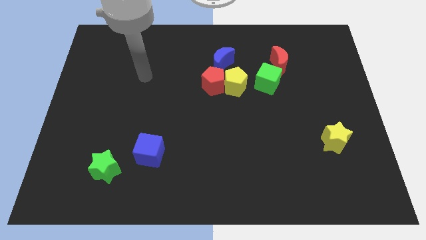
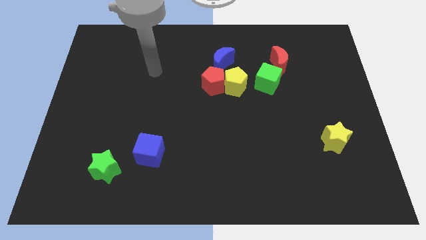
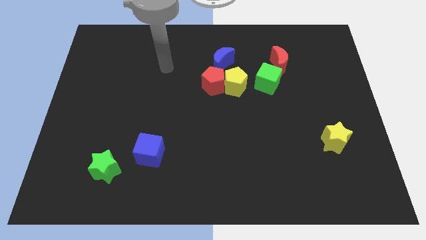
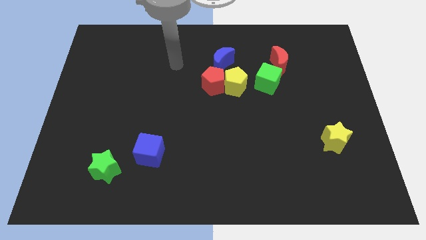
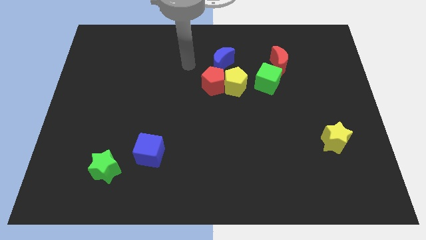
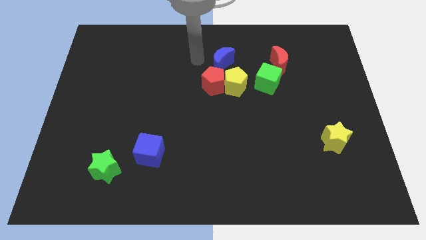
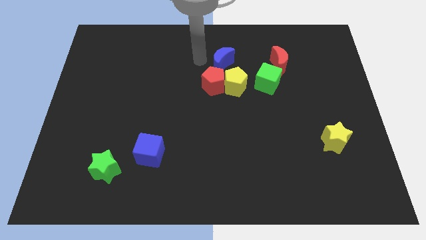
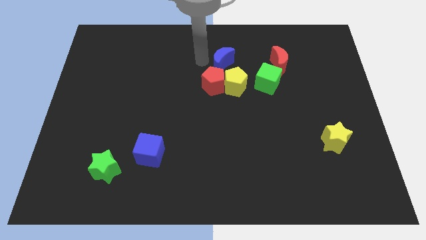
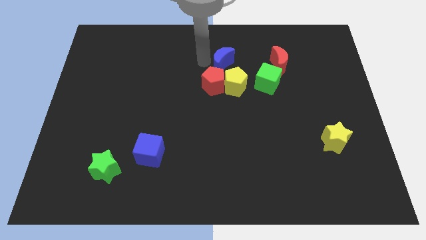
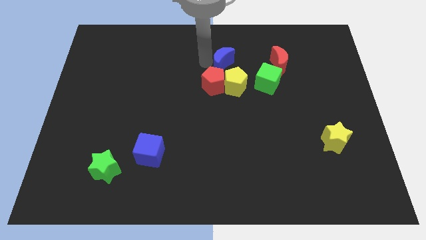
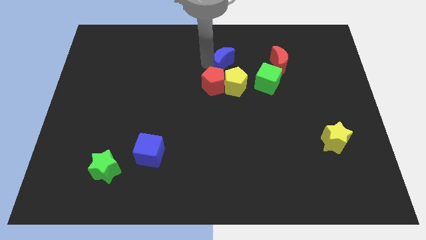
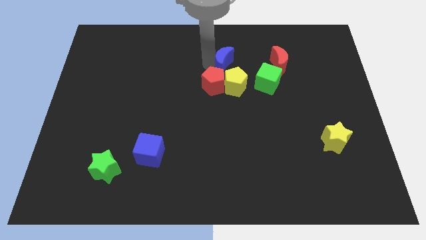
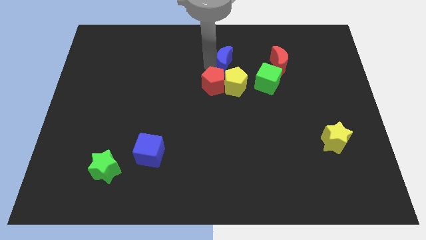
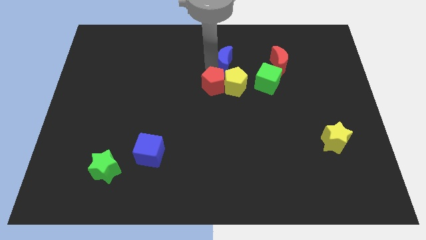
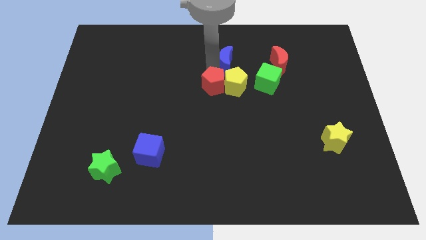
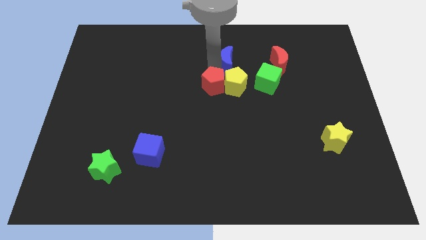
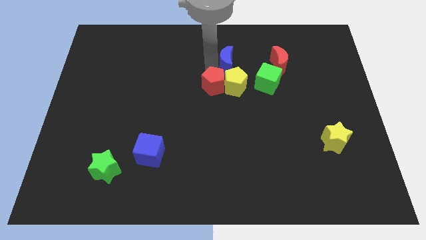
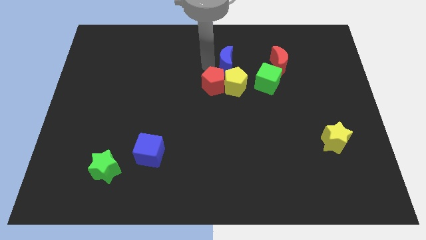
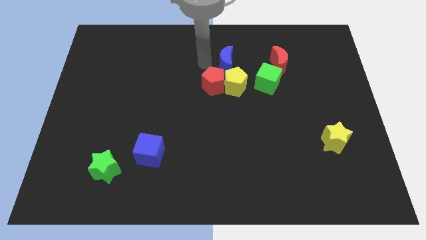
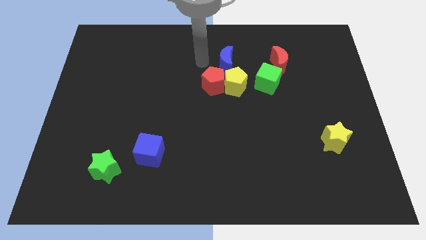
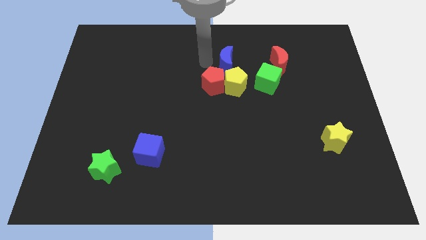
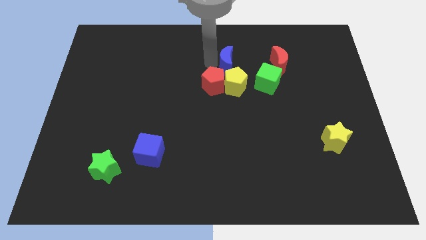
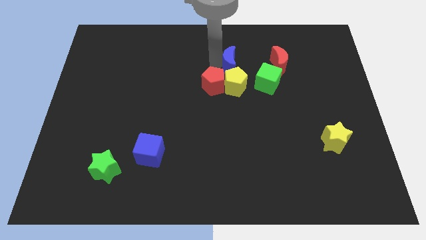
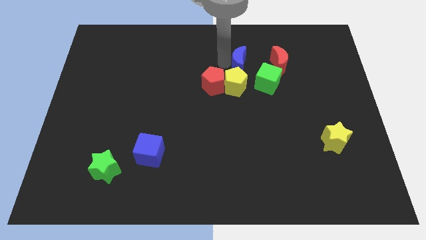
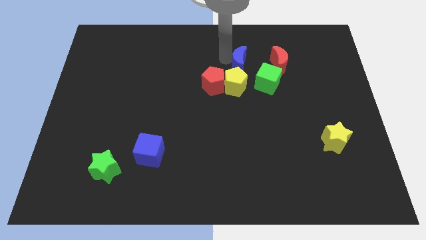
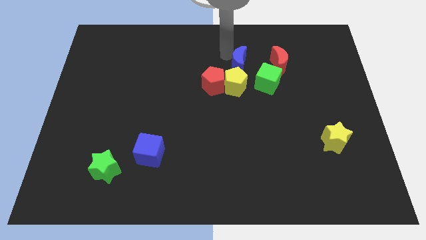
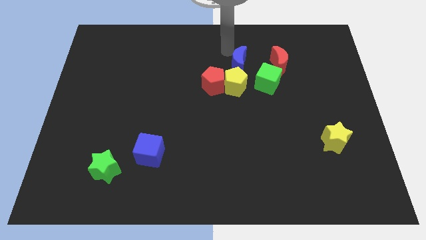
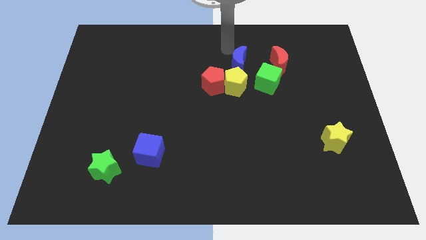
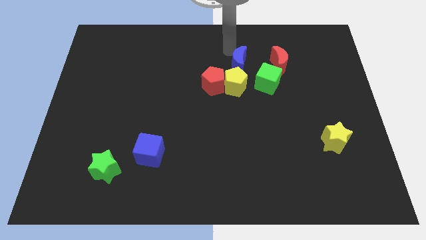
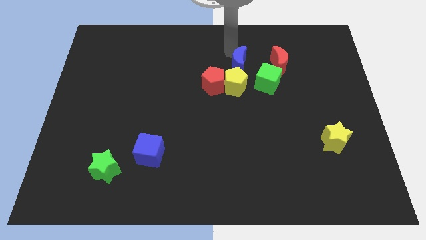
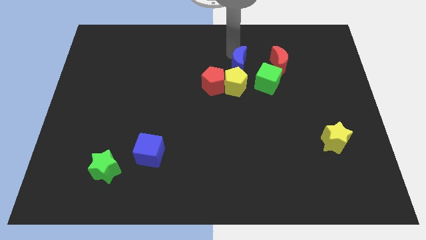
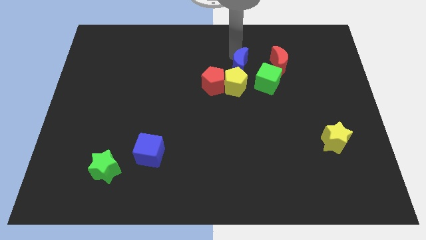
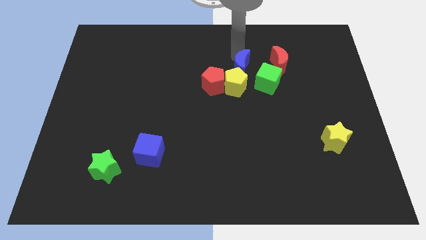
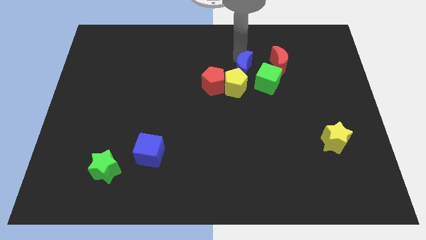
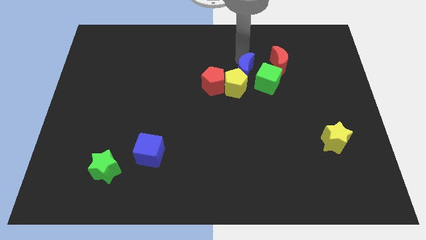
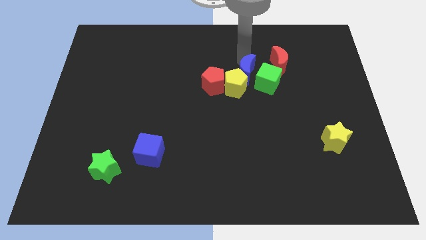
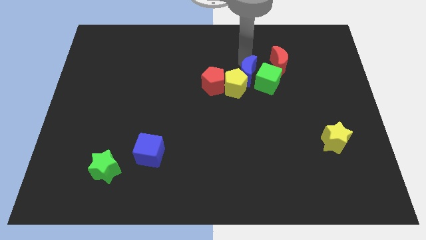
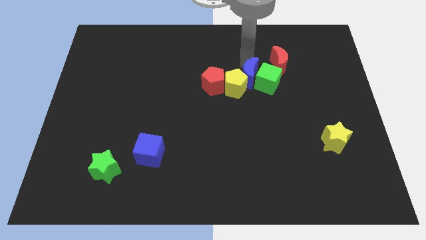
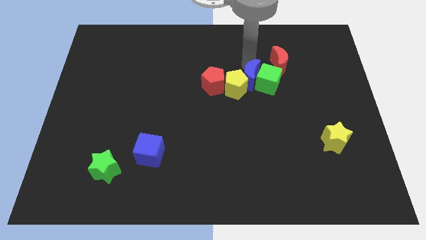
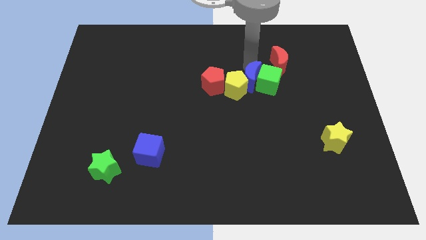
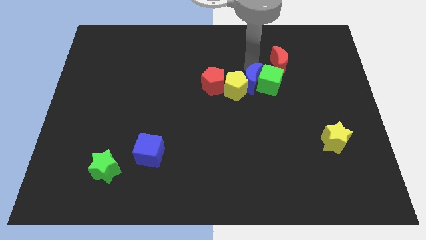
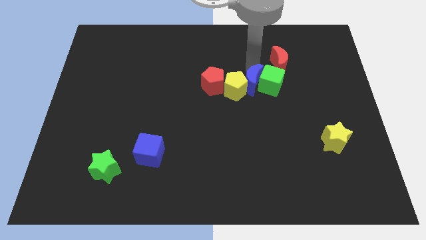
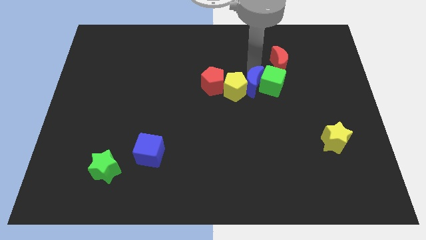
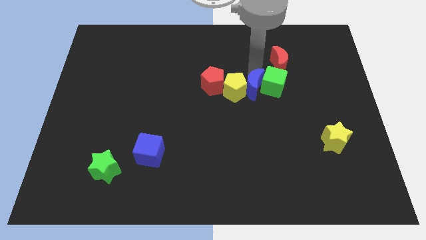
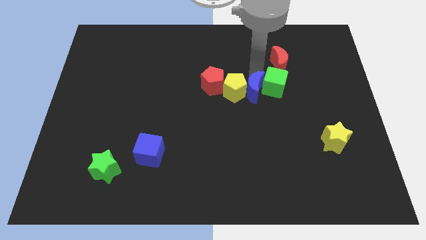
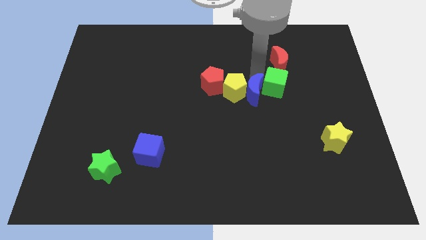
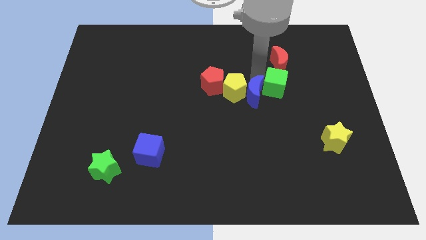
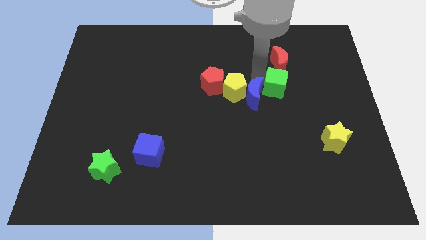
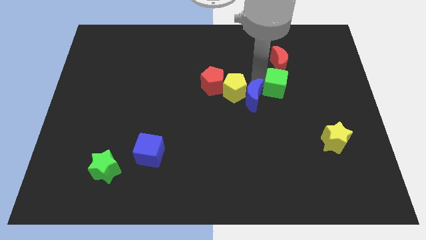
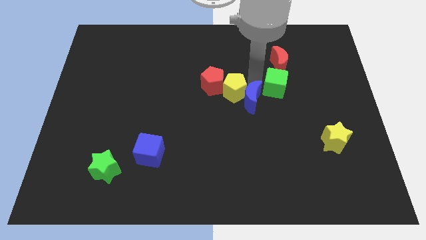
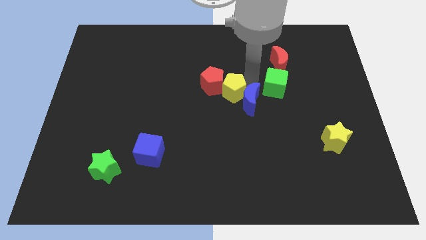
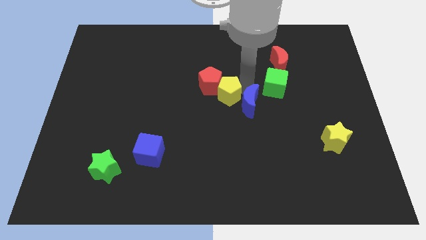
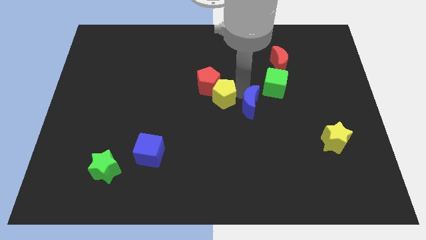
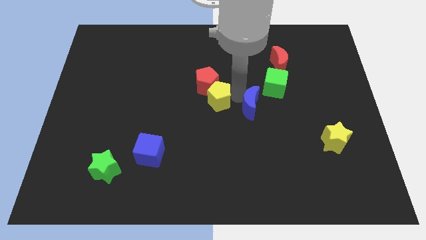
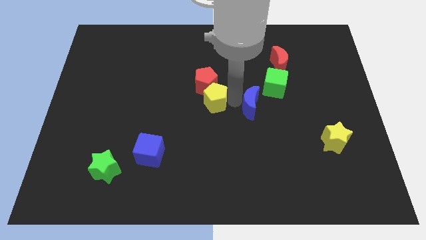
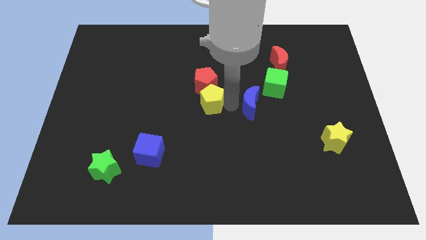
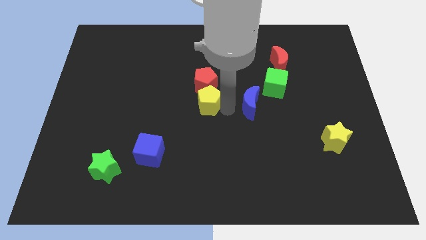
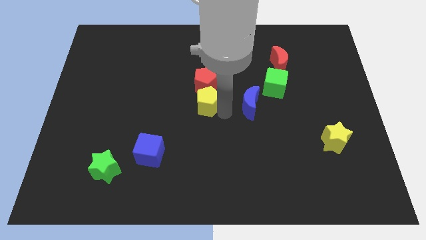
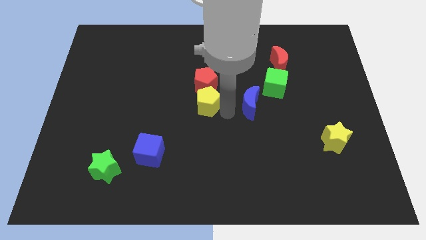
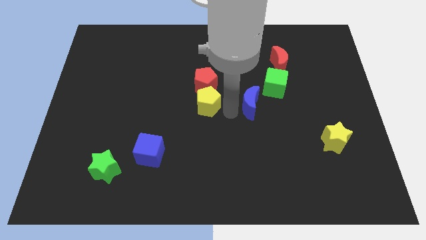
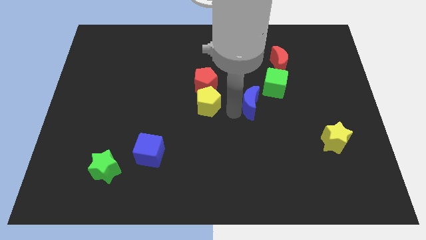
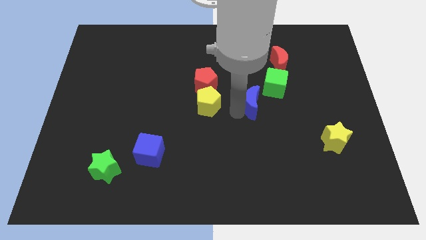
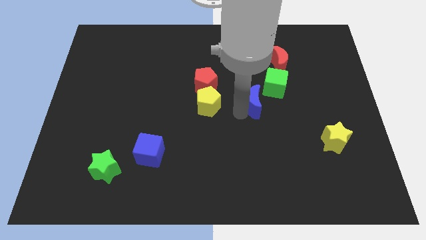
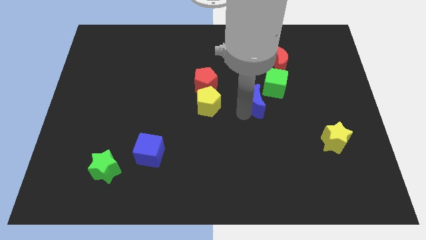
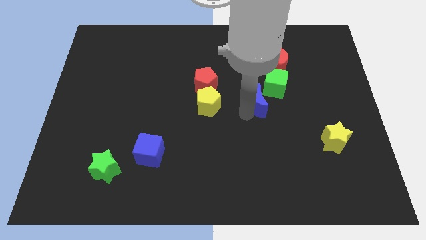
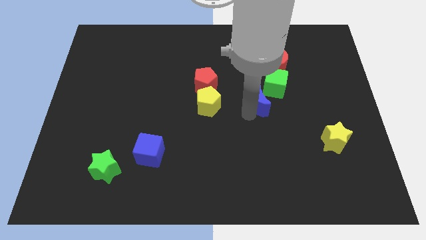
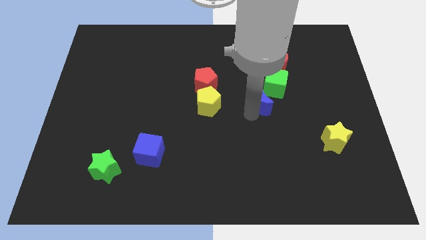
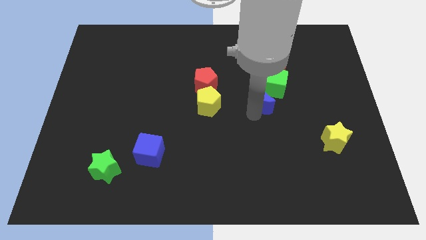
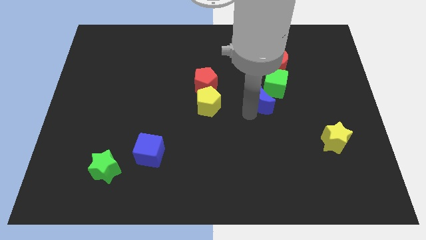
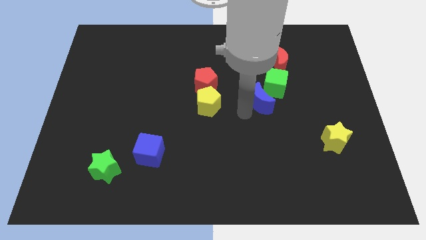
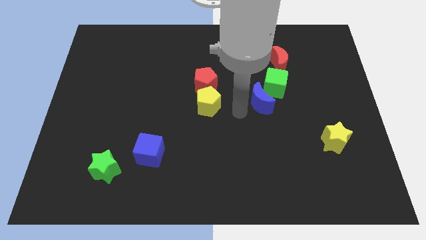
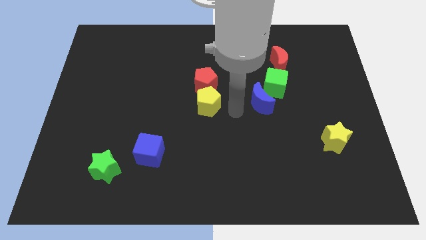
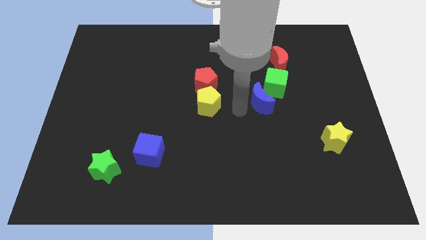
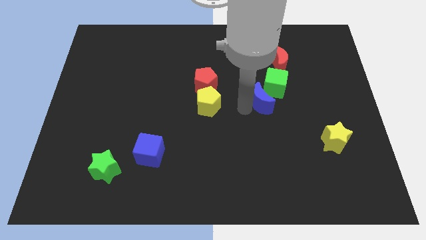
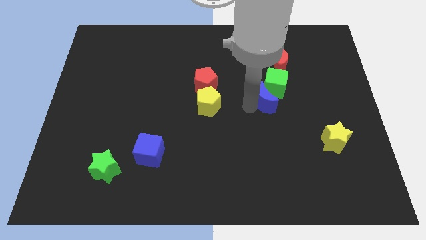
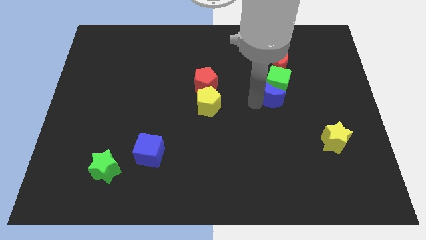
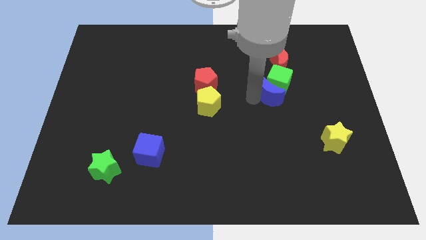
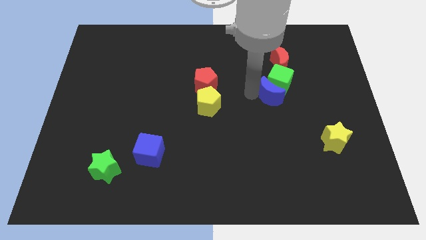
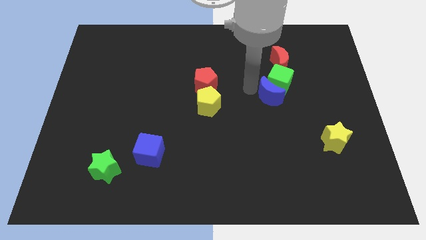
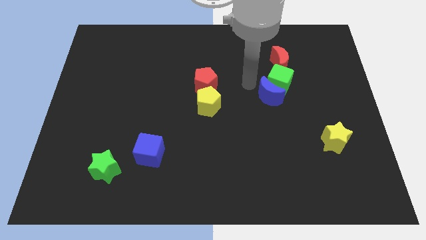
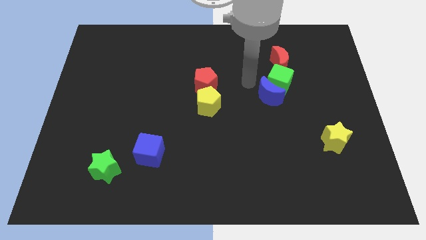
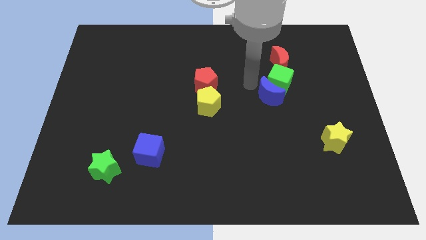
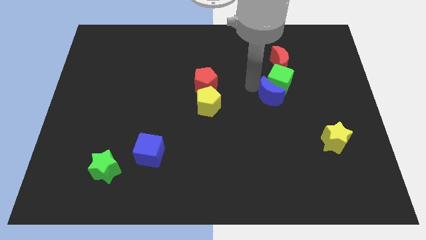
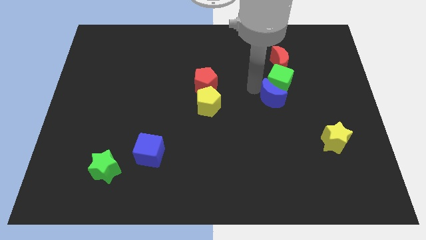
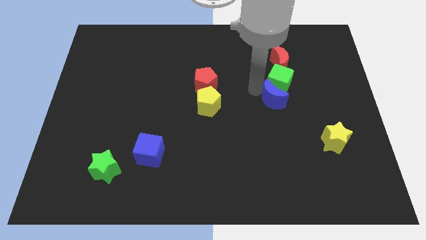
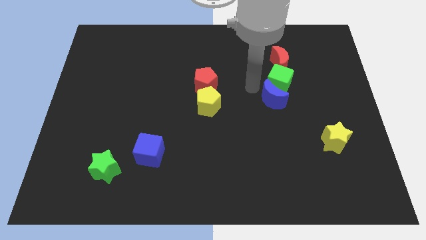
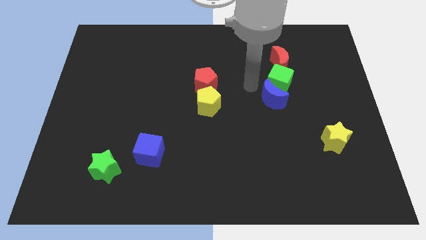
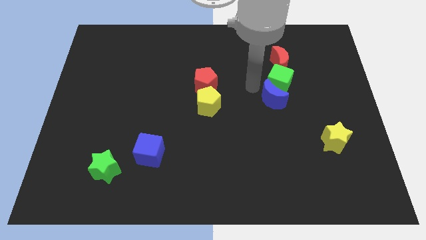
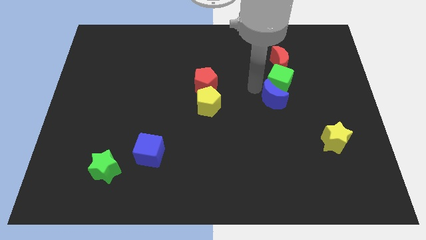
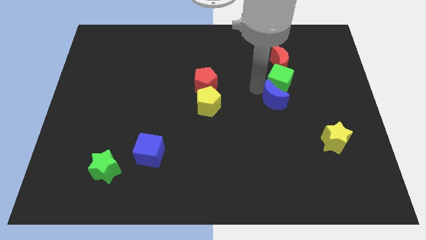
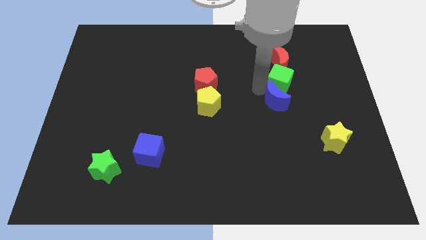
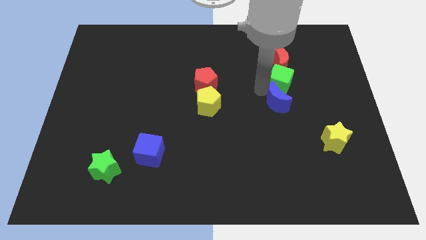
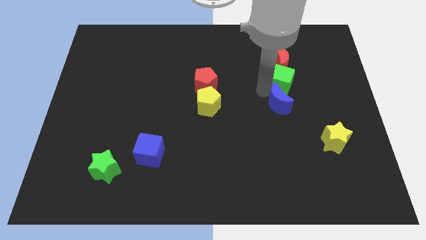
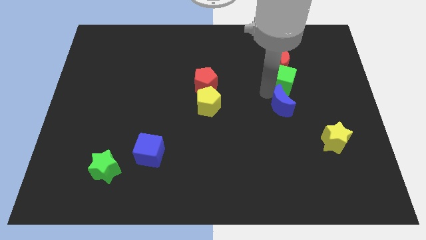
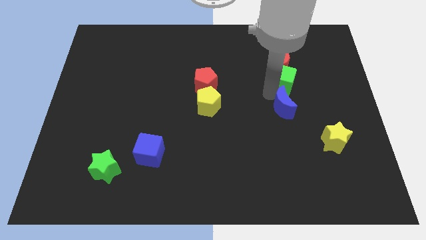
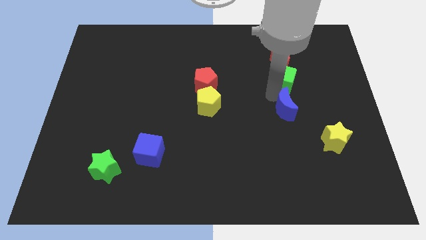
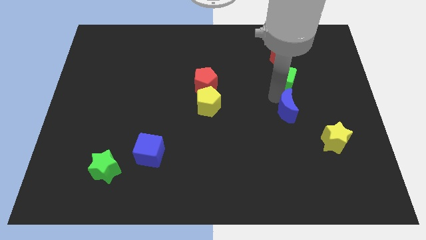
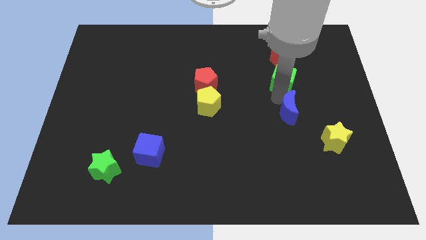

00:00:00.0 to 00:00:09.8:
slide the blue moon diagonally up and to the left of the yellow star
